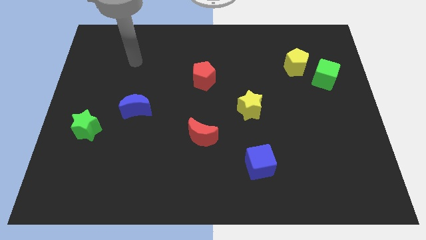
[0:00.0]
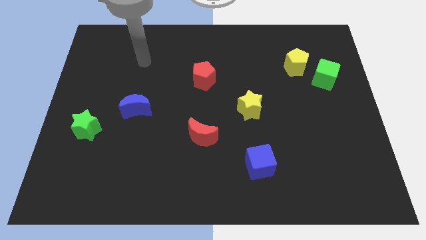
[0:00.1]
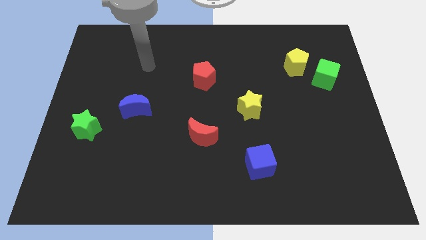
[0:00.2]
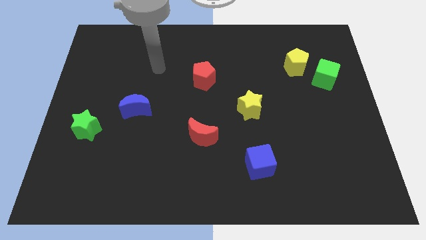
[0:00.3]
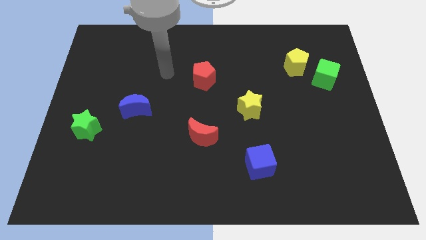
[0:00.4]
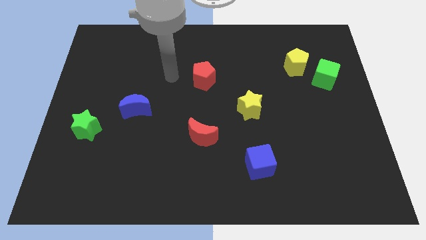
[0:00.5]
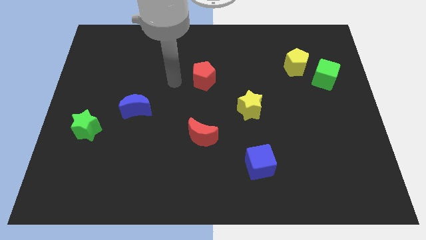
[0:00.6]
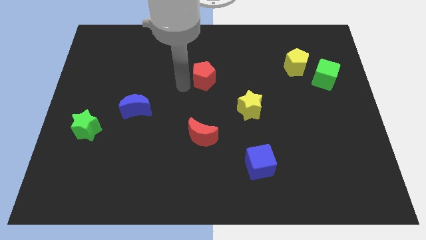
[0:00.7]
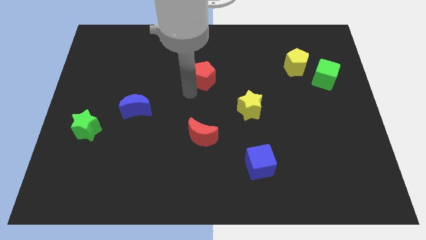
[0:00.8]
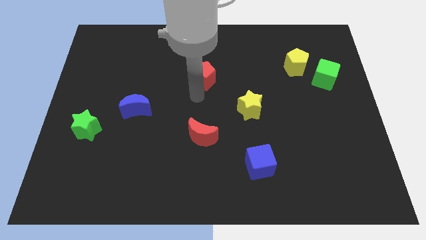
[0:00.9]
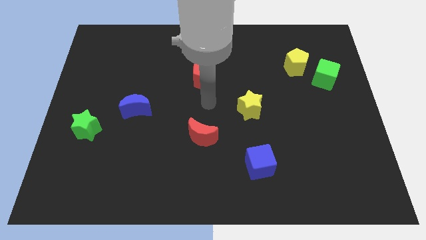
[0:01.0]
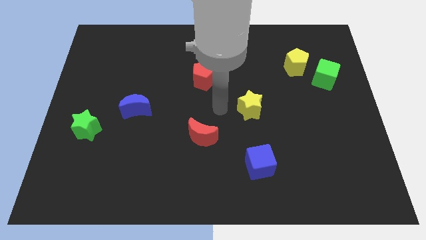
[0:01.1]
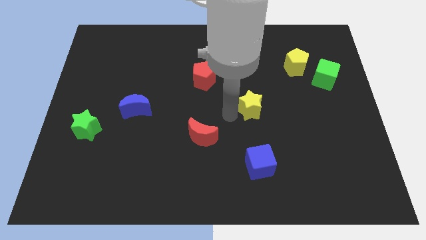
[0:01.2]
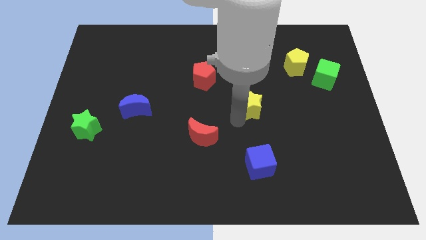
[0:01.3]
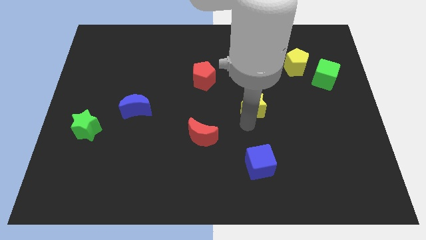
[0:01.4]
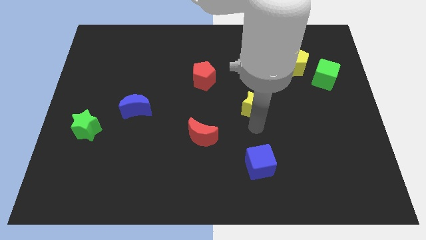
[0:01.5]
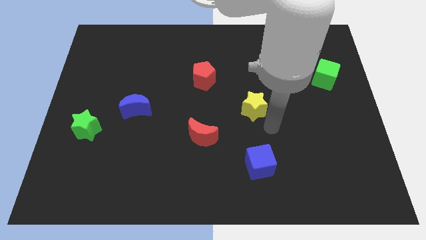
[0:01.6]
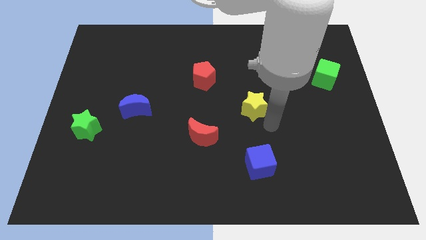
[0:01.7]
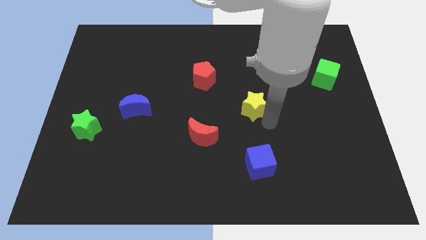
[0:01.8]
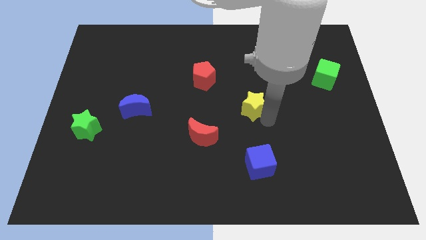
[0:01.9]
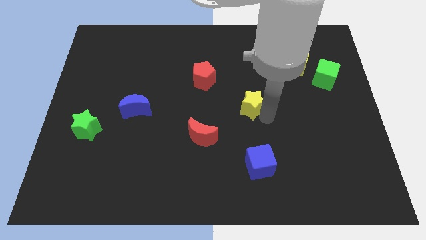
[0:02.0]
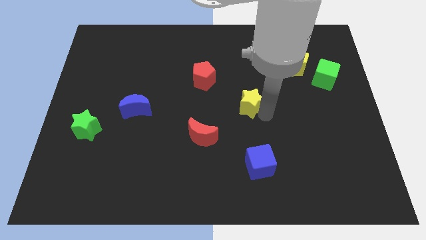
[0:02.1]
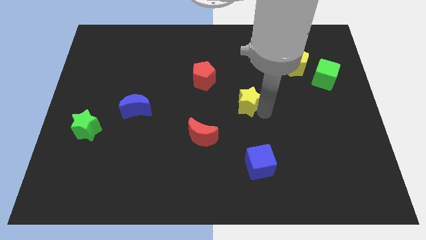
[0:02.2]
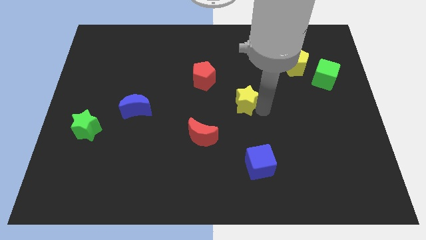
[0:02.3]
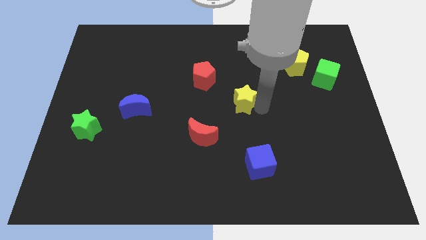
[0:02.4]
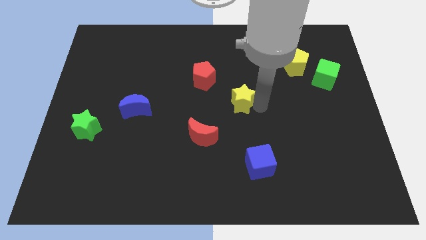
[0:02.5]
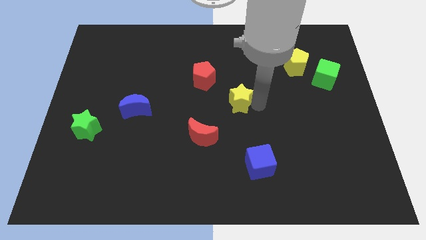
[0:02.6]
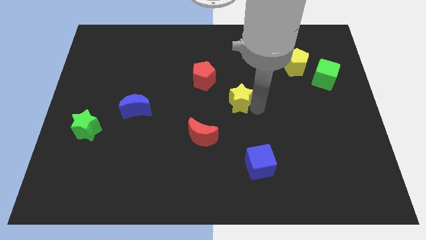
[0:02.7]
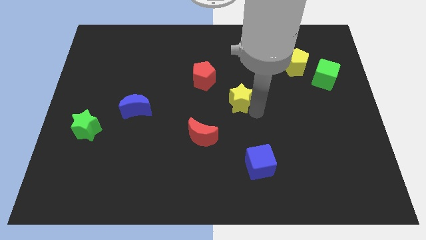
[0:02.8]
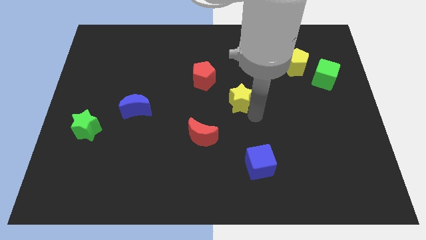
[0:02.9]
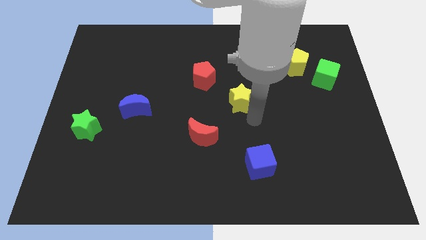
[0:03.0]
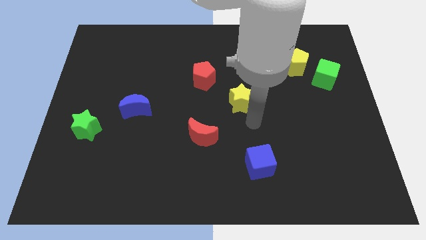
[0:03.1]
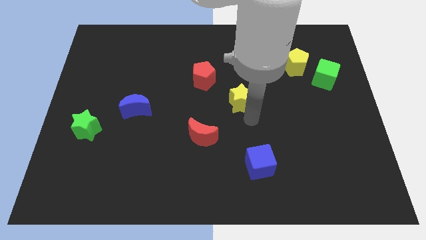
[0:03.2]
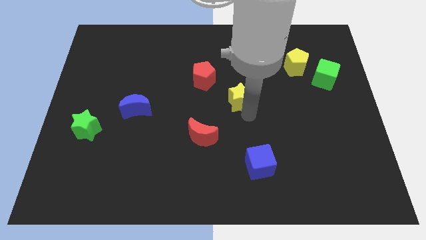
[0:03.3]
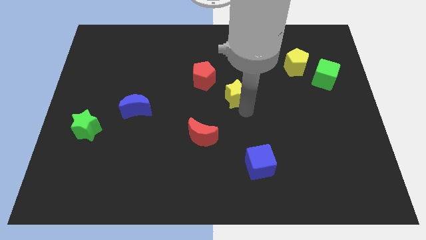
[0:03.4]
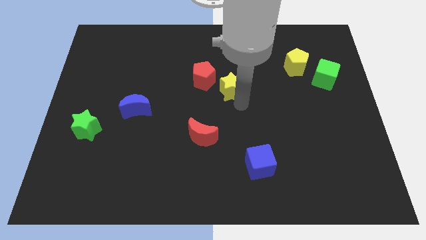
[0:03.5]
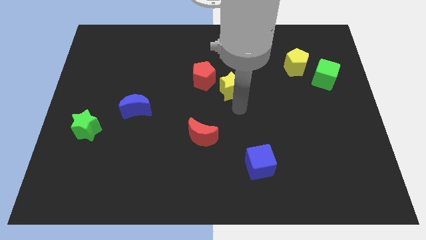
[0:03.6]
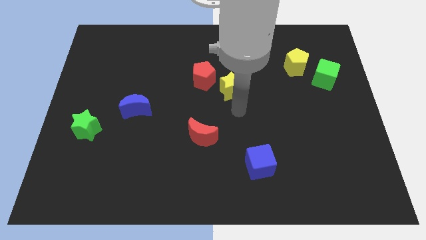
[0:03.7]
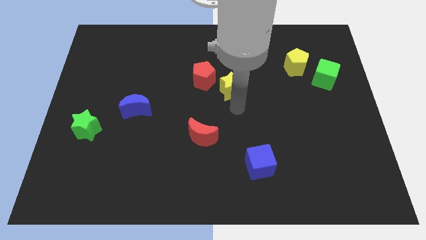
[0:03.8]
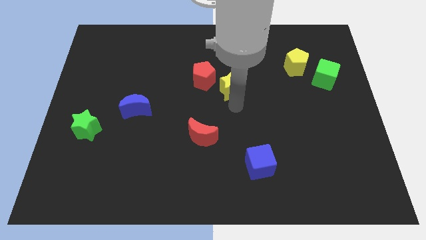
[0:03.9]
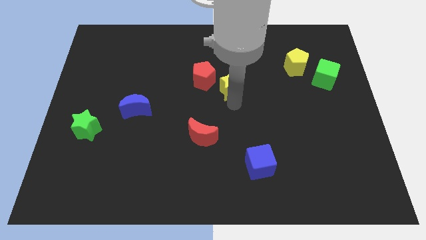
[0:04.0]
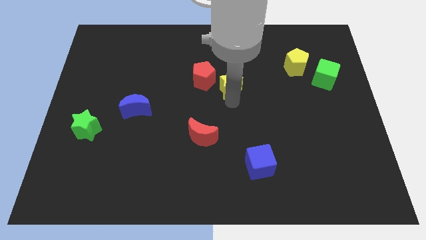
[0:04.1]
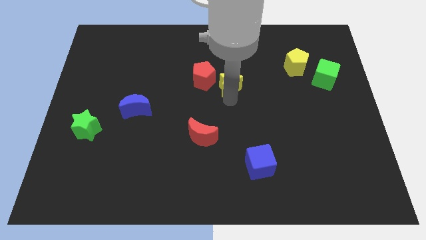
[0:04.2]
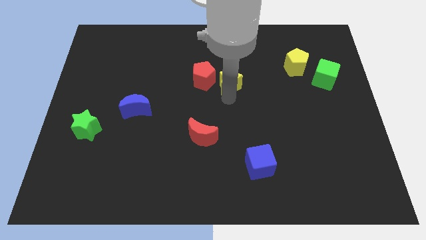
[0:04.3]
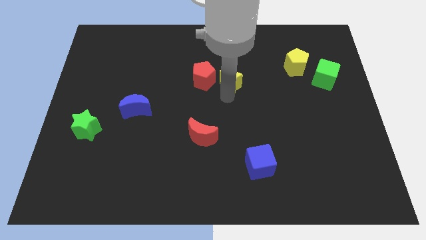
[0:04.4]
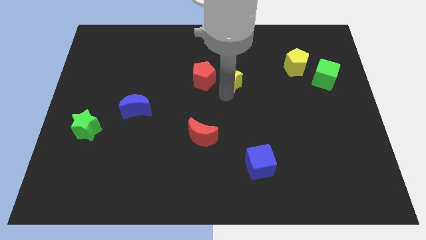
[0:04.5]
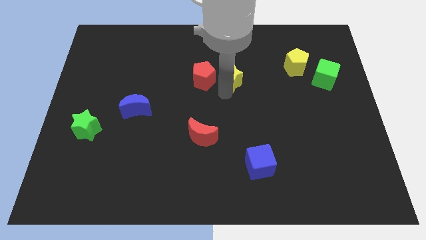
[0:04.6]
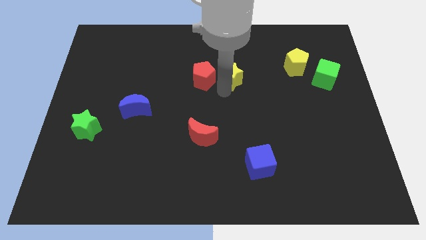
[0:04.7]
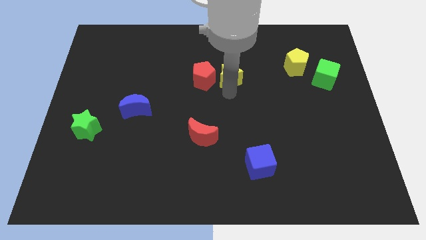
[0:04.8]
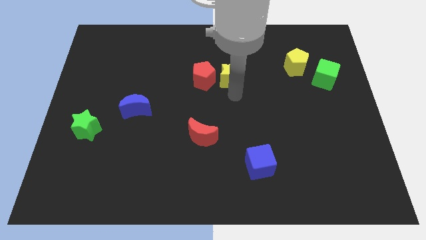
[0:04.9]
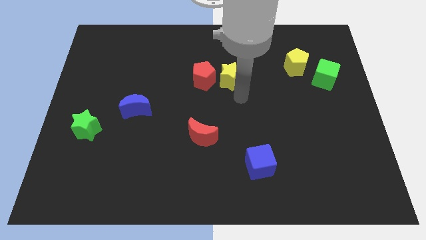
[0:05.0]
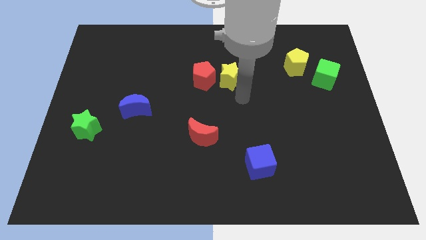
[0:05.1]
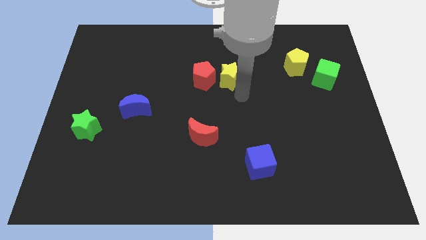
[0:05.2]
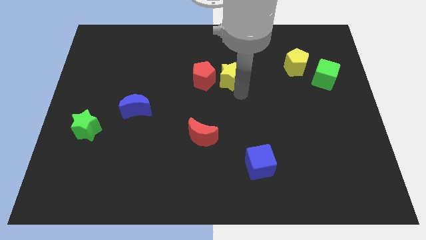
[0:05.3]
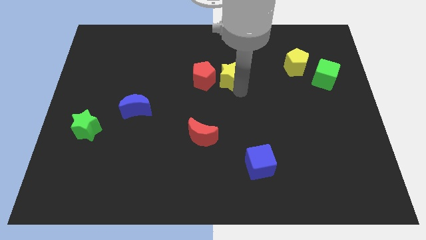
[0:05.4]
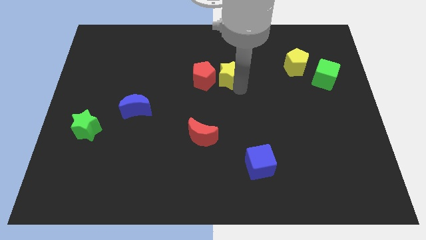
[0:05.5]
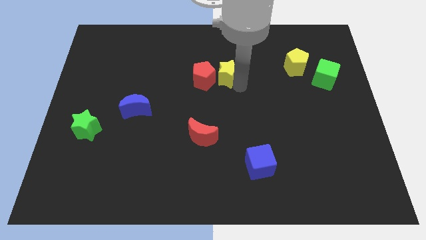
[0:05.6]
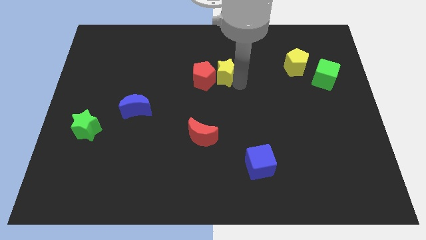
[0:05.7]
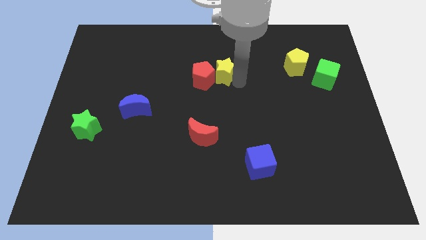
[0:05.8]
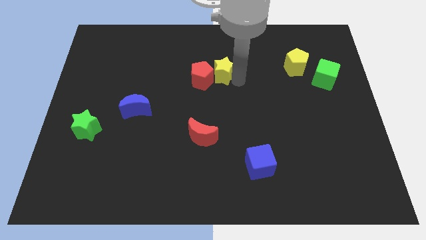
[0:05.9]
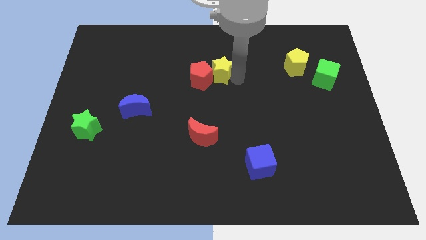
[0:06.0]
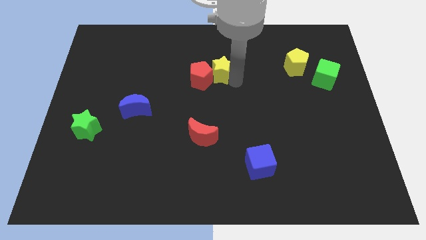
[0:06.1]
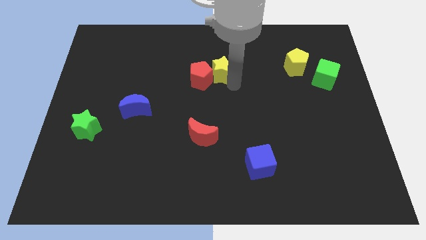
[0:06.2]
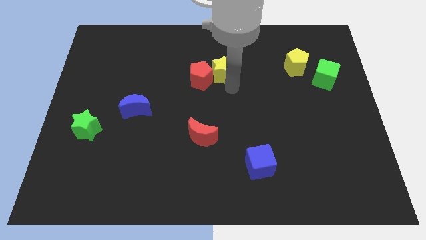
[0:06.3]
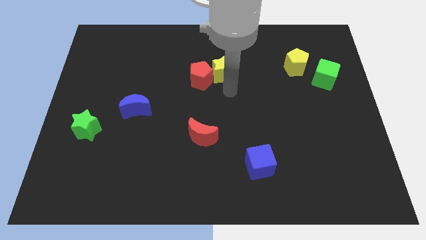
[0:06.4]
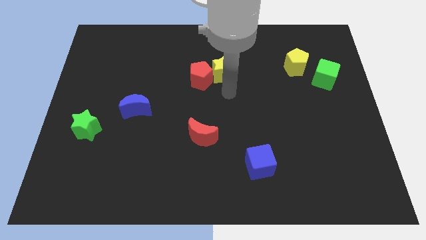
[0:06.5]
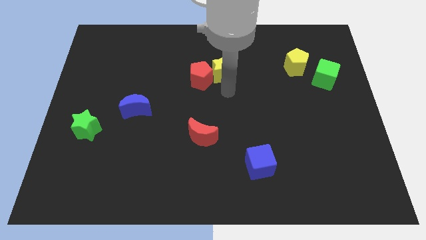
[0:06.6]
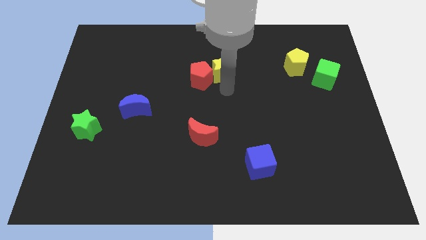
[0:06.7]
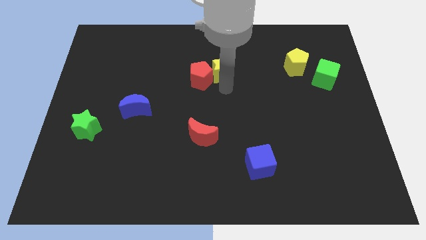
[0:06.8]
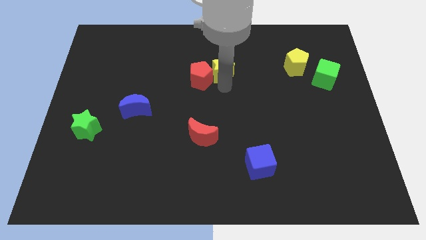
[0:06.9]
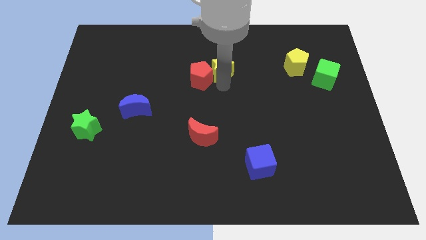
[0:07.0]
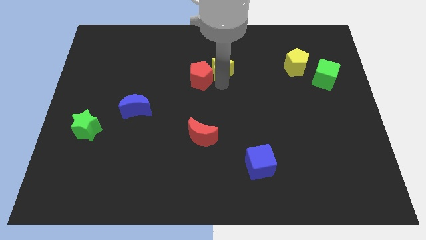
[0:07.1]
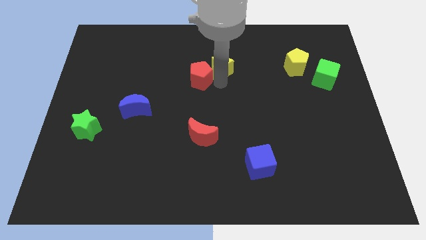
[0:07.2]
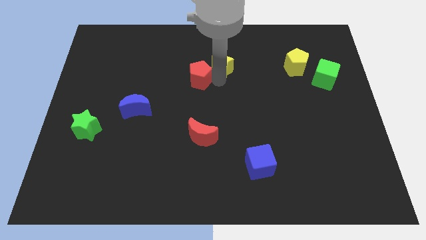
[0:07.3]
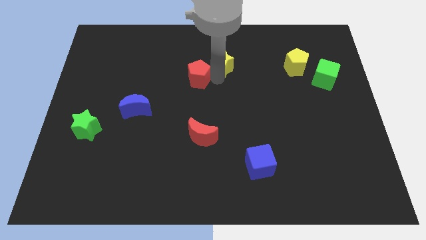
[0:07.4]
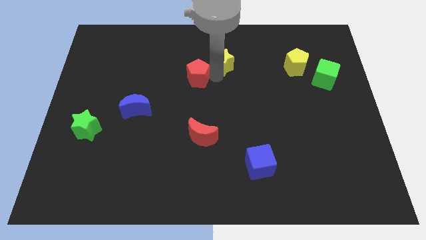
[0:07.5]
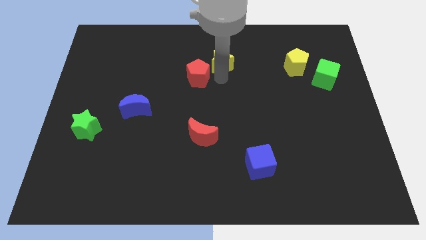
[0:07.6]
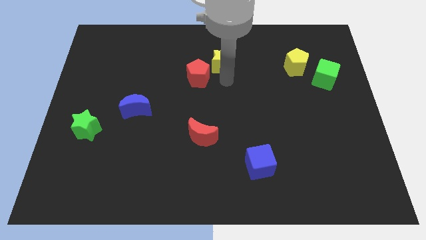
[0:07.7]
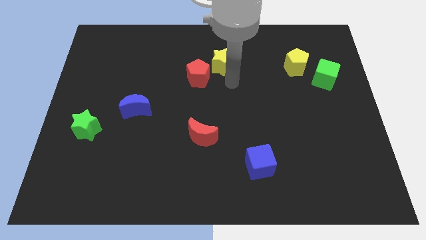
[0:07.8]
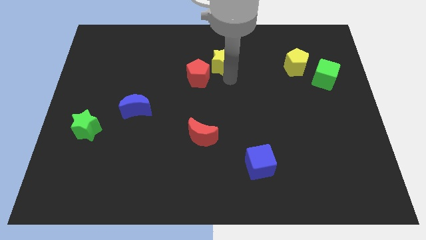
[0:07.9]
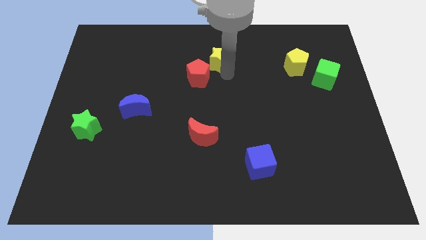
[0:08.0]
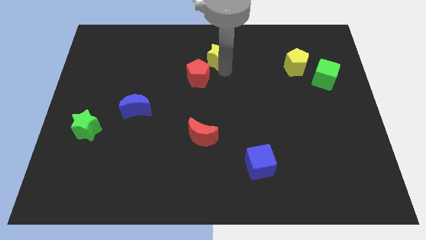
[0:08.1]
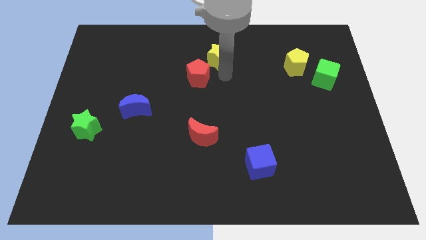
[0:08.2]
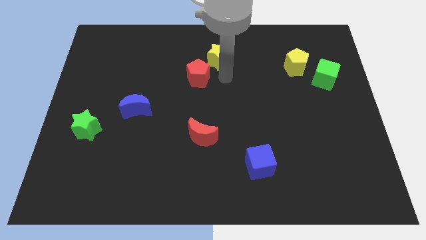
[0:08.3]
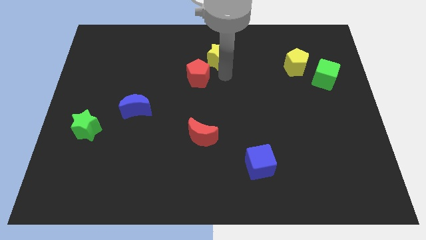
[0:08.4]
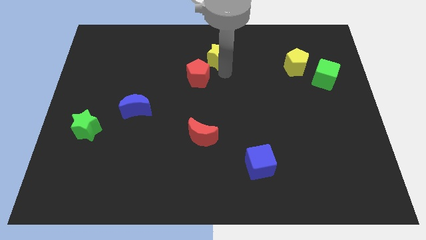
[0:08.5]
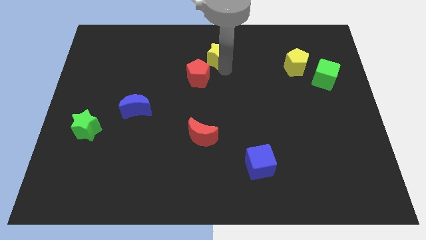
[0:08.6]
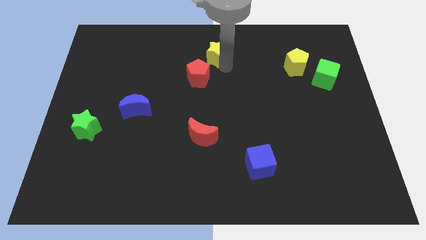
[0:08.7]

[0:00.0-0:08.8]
put the yellow star to the top side
